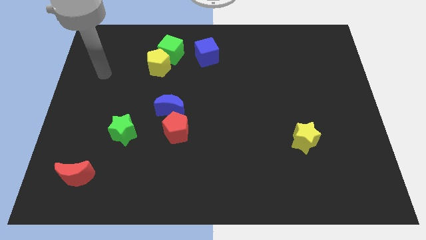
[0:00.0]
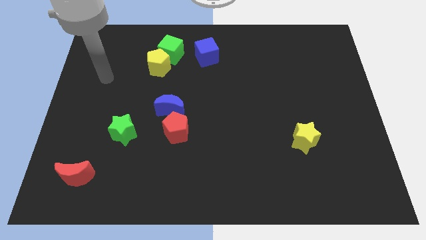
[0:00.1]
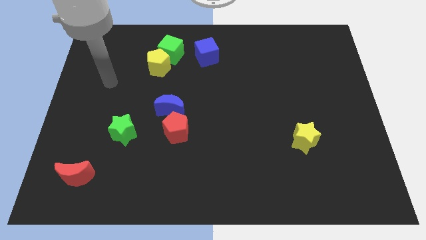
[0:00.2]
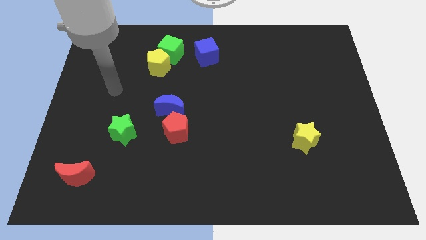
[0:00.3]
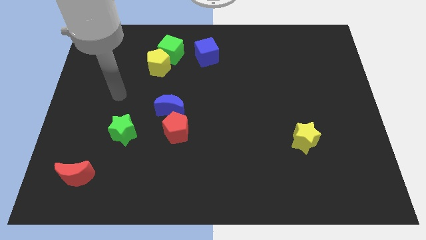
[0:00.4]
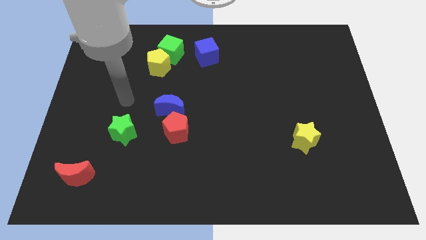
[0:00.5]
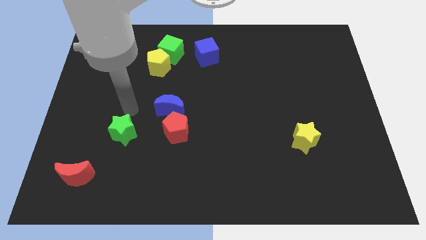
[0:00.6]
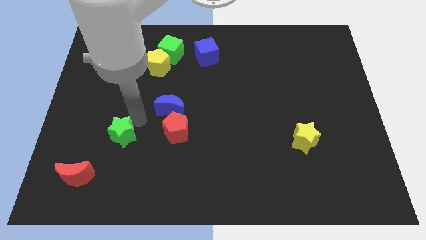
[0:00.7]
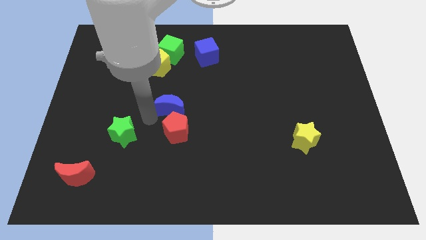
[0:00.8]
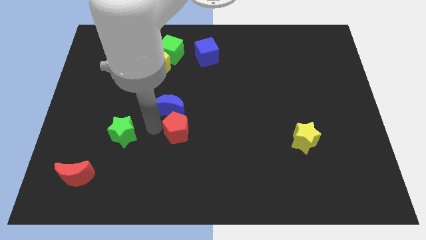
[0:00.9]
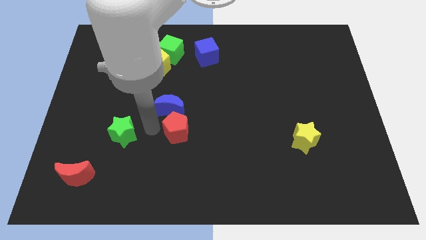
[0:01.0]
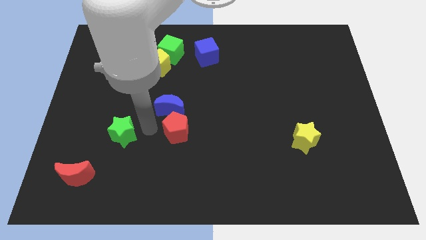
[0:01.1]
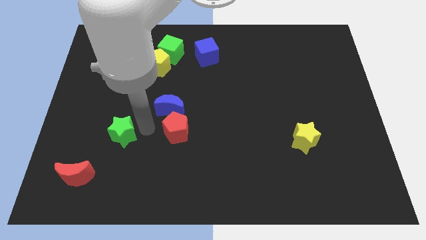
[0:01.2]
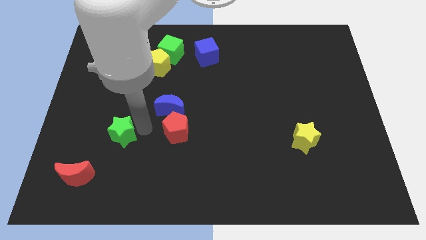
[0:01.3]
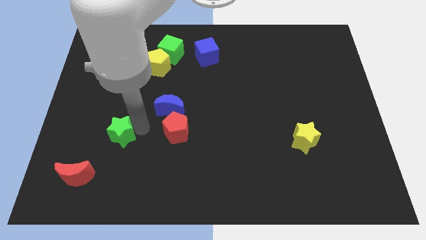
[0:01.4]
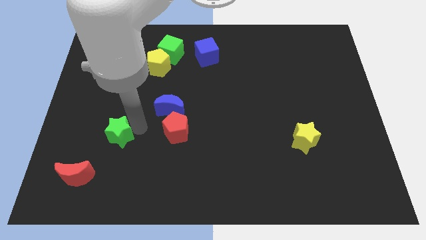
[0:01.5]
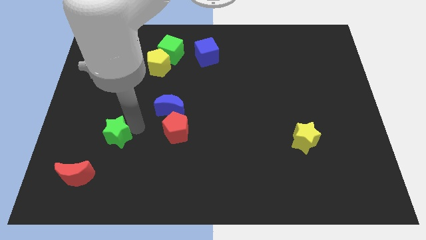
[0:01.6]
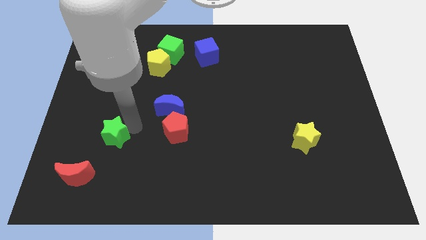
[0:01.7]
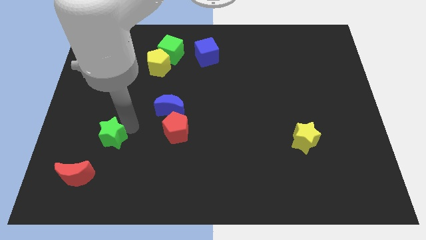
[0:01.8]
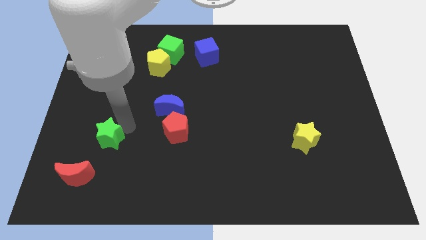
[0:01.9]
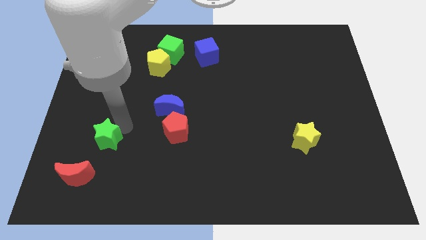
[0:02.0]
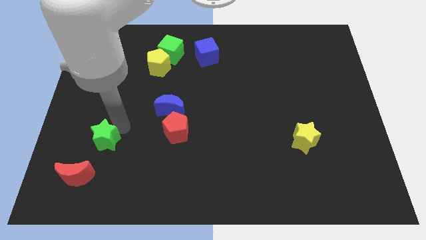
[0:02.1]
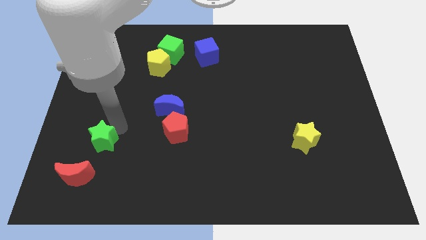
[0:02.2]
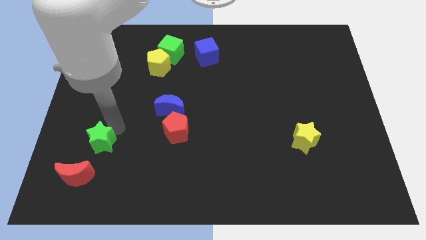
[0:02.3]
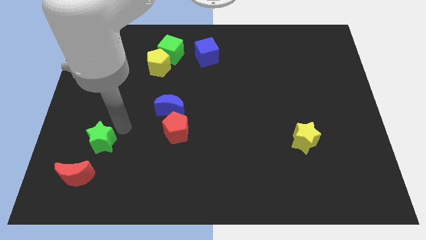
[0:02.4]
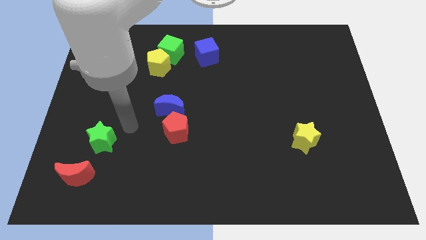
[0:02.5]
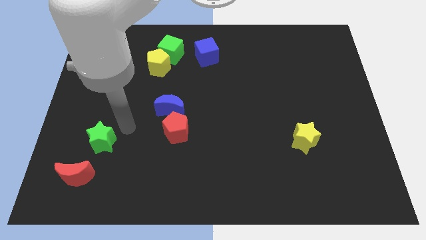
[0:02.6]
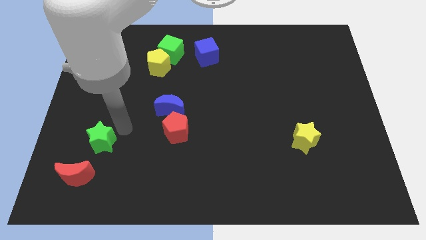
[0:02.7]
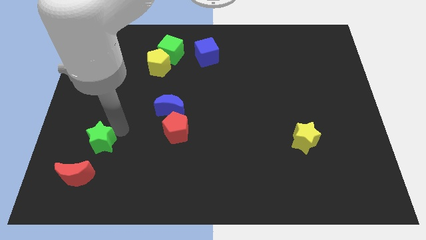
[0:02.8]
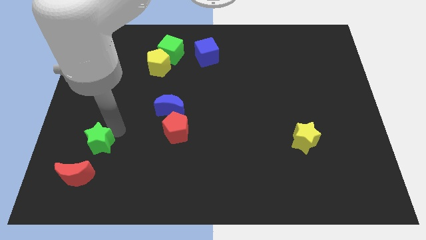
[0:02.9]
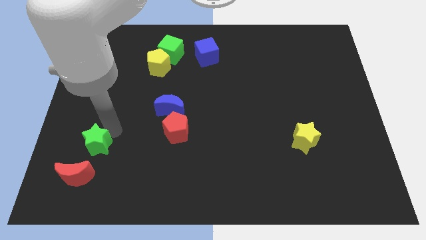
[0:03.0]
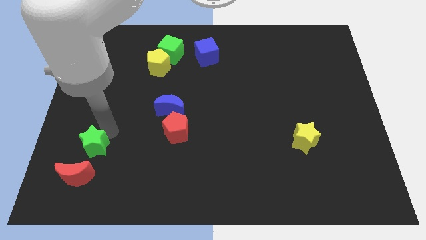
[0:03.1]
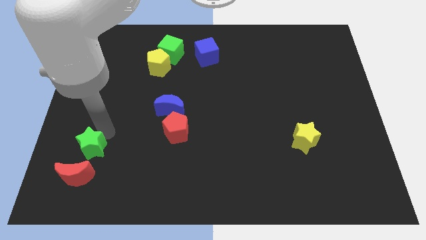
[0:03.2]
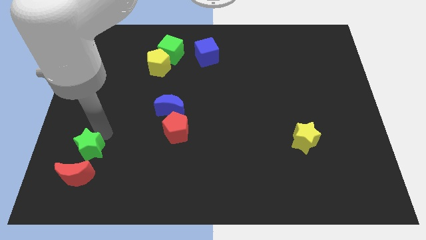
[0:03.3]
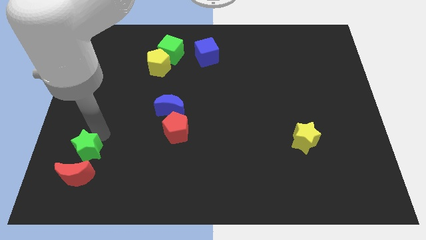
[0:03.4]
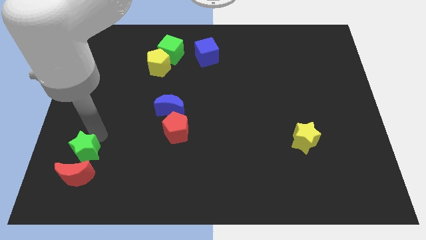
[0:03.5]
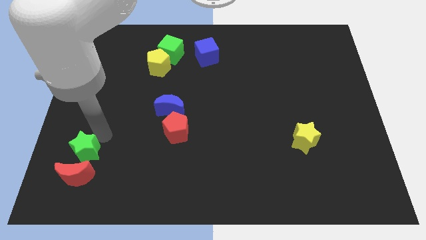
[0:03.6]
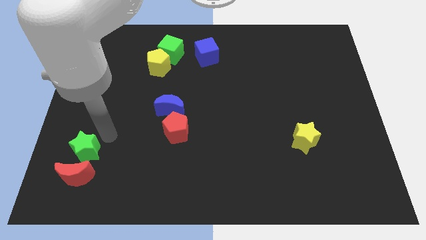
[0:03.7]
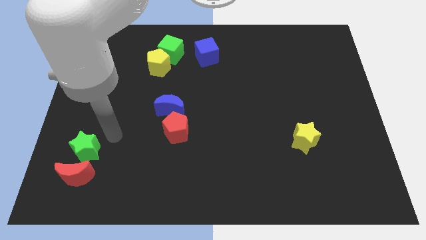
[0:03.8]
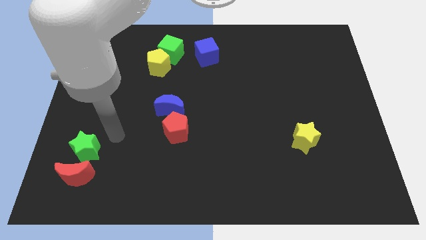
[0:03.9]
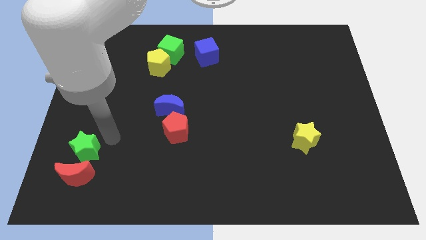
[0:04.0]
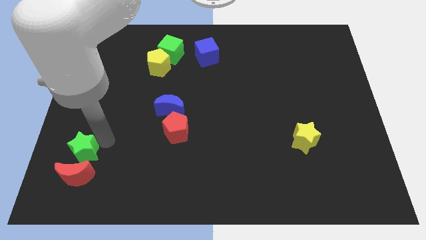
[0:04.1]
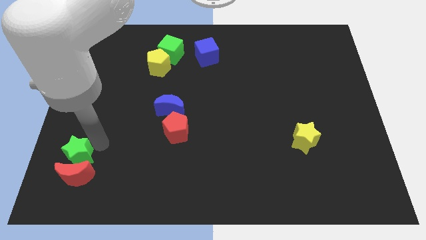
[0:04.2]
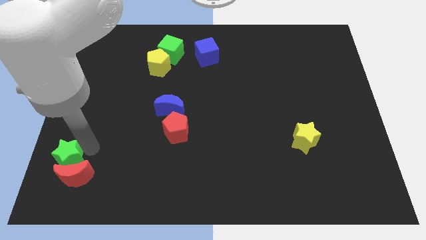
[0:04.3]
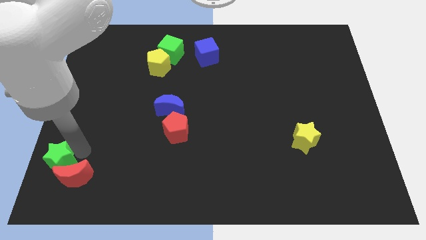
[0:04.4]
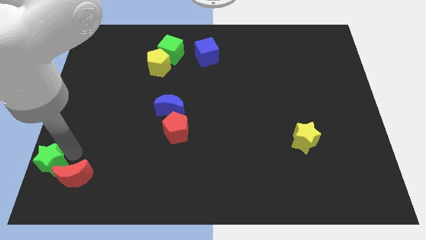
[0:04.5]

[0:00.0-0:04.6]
slide the green star to the bottom left corner

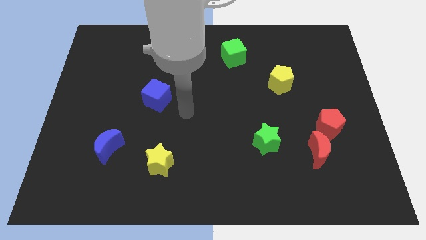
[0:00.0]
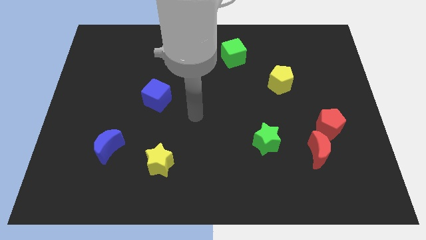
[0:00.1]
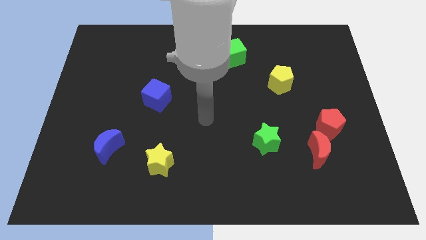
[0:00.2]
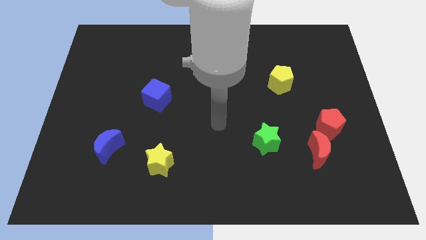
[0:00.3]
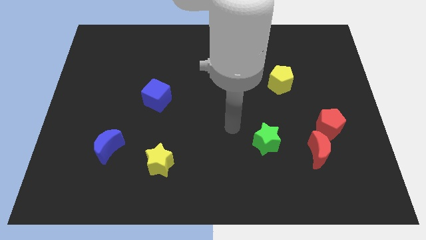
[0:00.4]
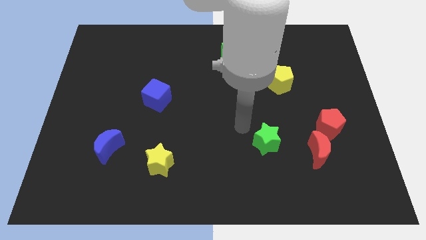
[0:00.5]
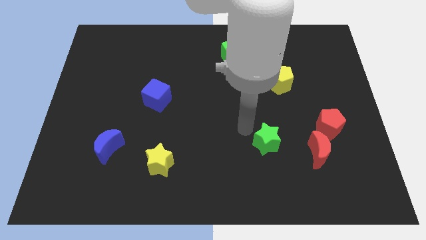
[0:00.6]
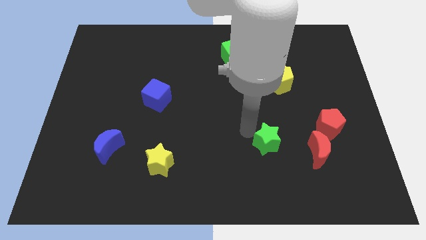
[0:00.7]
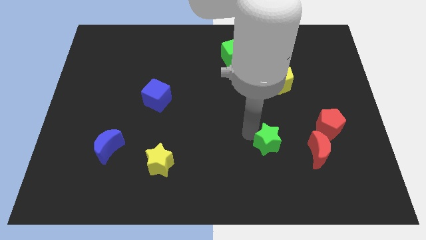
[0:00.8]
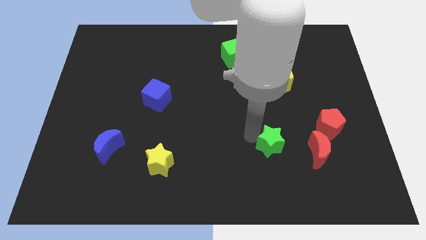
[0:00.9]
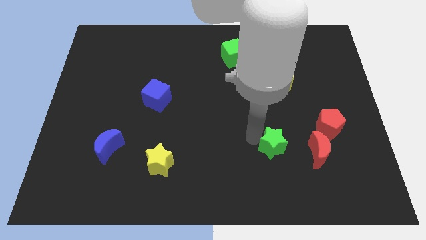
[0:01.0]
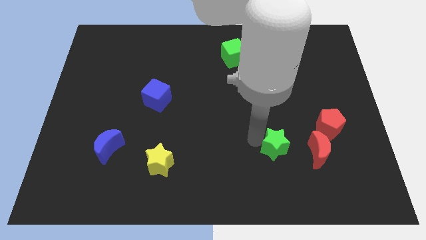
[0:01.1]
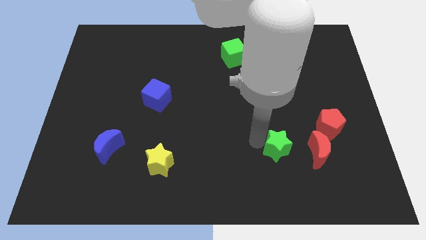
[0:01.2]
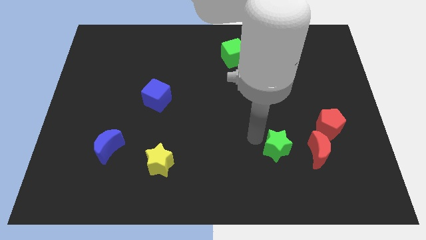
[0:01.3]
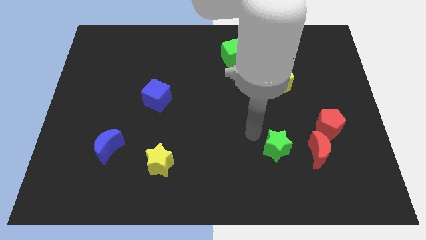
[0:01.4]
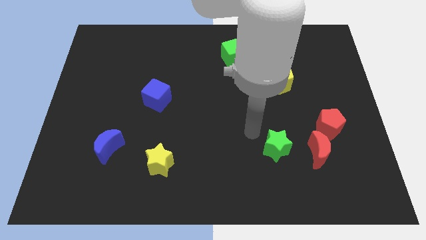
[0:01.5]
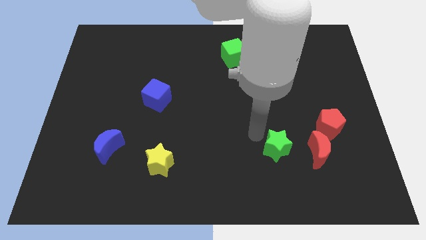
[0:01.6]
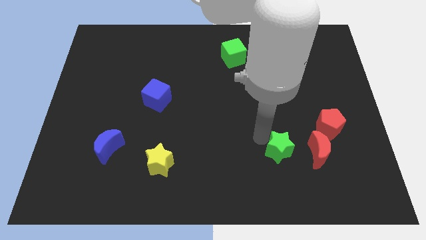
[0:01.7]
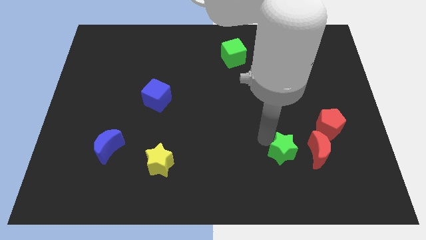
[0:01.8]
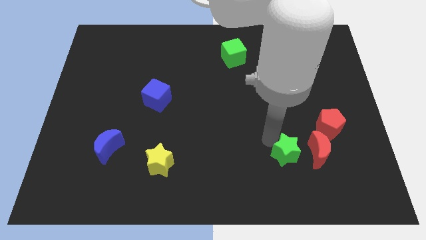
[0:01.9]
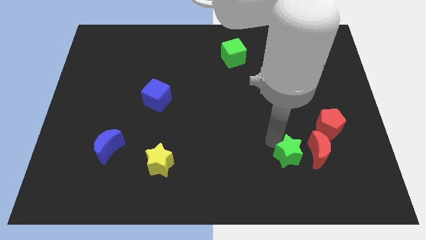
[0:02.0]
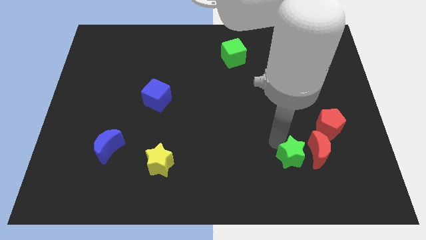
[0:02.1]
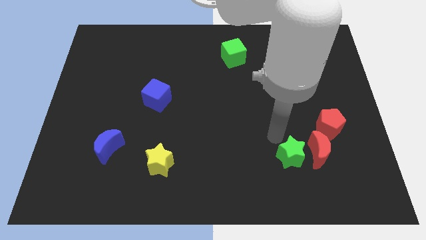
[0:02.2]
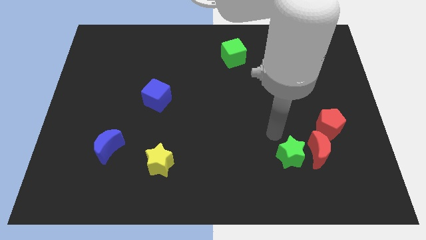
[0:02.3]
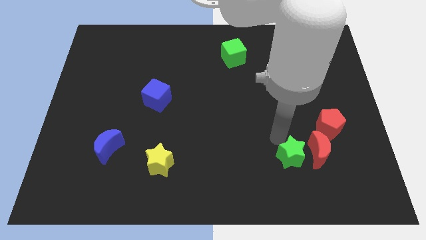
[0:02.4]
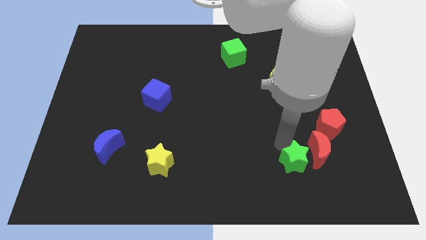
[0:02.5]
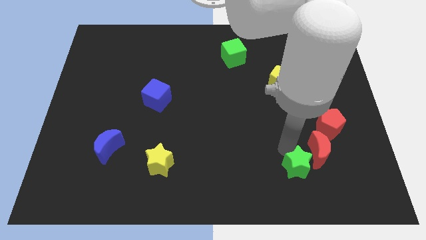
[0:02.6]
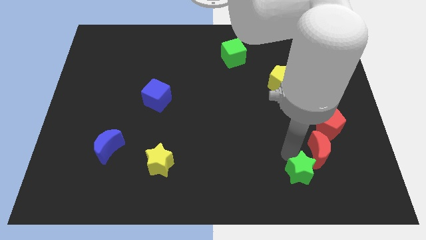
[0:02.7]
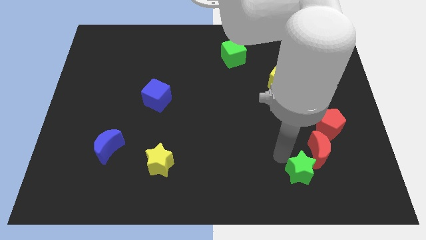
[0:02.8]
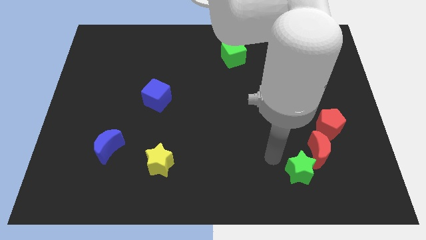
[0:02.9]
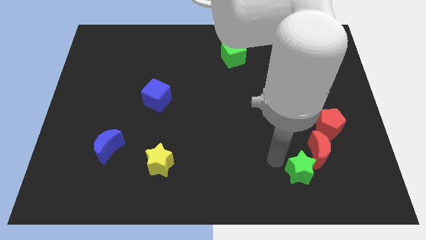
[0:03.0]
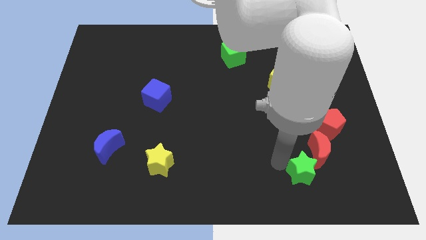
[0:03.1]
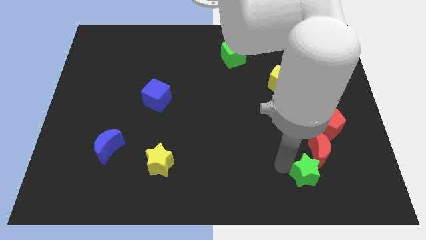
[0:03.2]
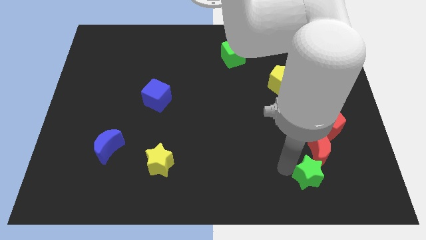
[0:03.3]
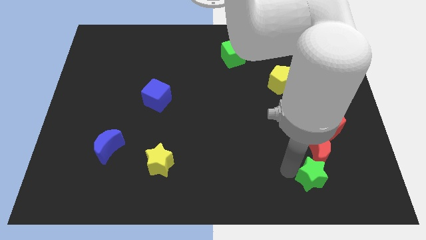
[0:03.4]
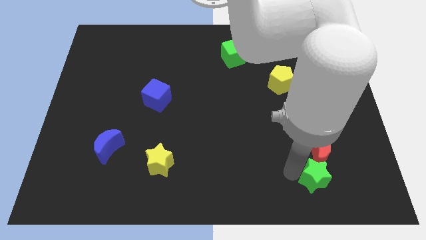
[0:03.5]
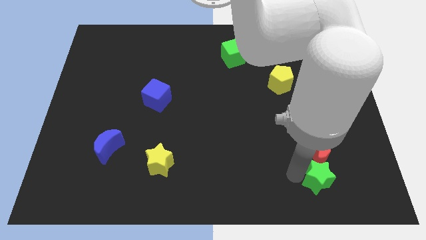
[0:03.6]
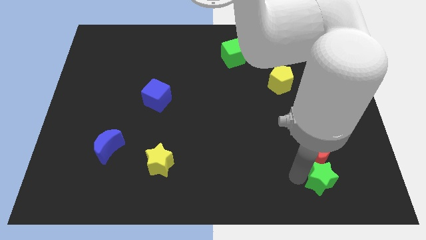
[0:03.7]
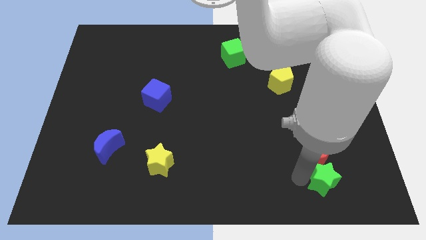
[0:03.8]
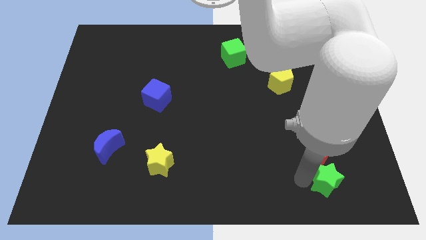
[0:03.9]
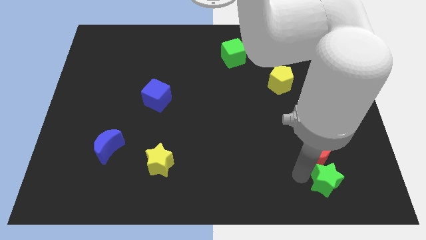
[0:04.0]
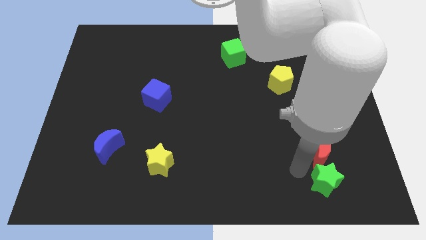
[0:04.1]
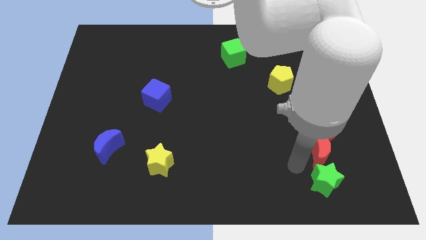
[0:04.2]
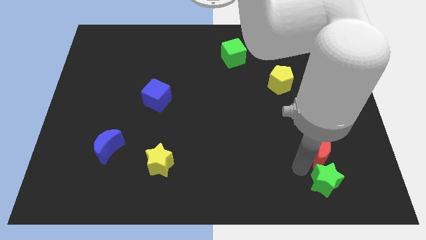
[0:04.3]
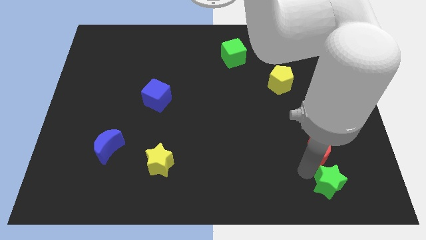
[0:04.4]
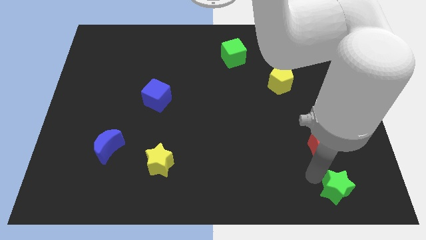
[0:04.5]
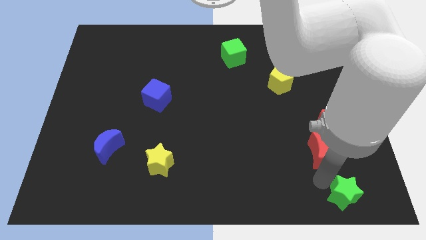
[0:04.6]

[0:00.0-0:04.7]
move the green star to the bottom right corner
